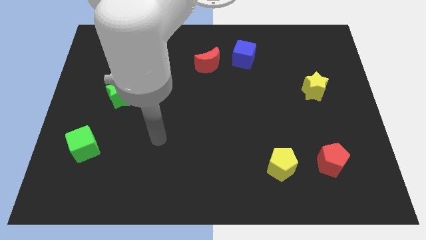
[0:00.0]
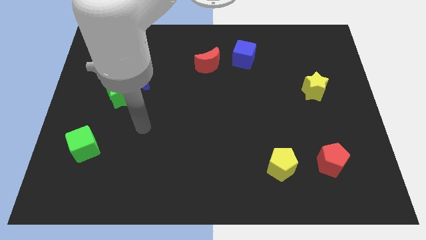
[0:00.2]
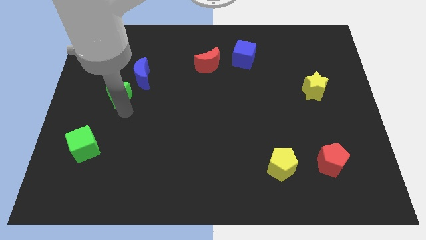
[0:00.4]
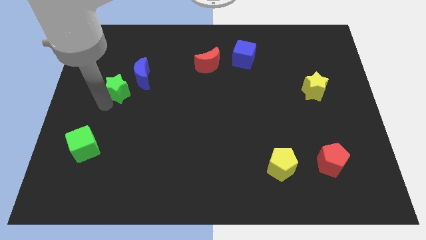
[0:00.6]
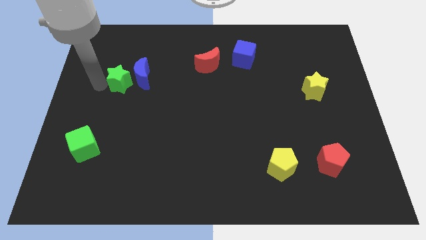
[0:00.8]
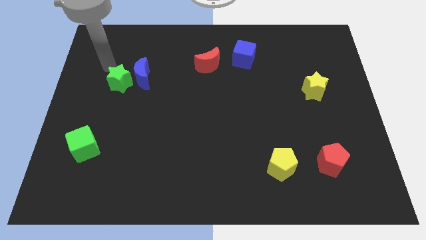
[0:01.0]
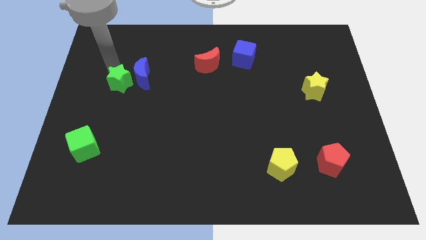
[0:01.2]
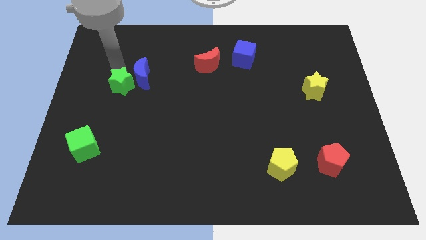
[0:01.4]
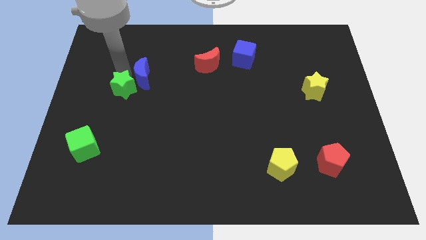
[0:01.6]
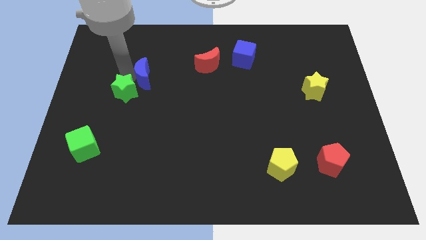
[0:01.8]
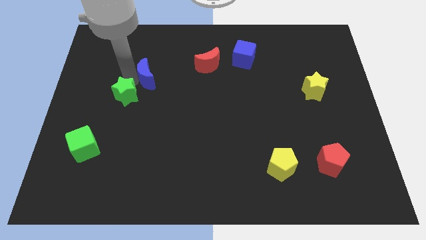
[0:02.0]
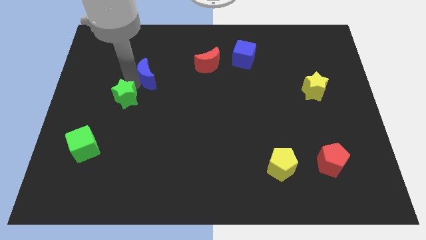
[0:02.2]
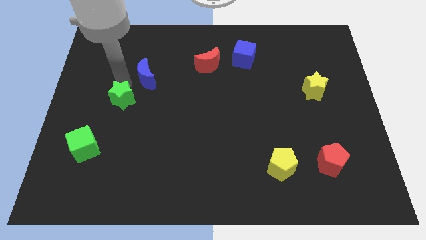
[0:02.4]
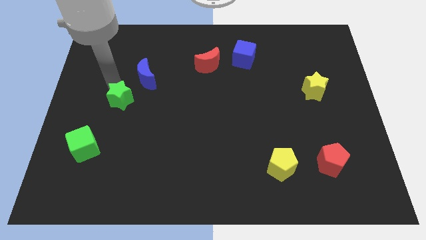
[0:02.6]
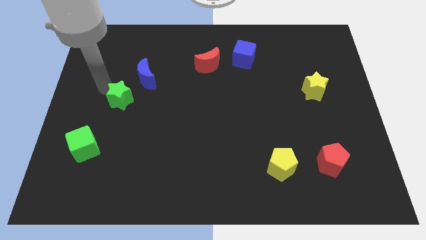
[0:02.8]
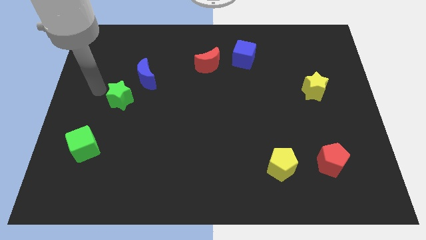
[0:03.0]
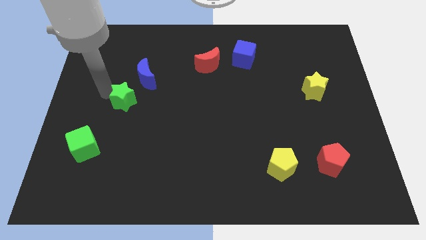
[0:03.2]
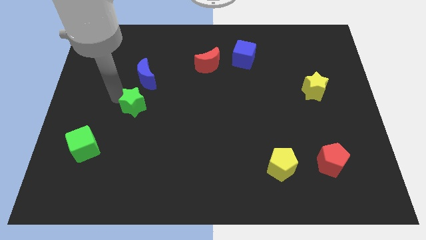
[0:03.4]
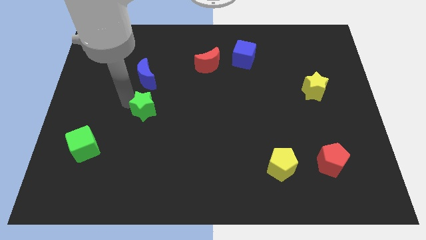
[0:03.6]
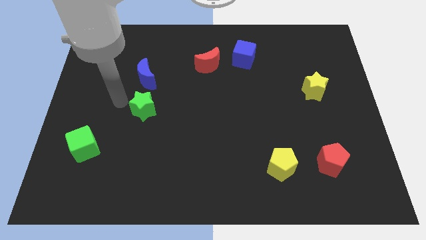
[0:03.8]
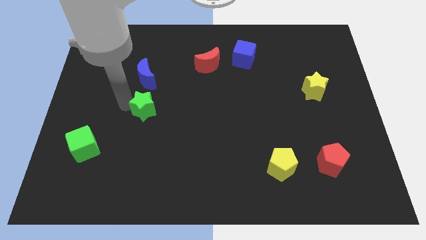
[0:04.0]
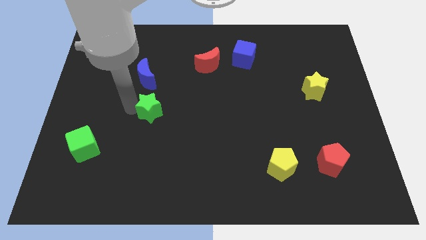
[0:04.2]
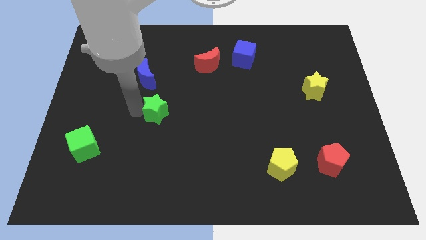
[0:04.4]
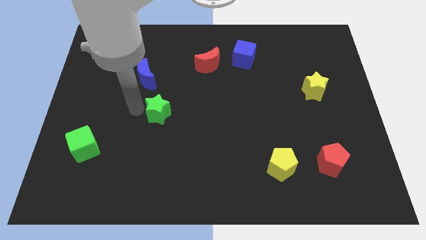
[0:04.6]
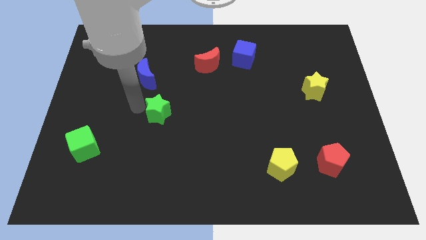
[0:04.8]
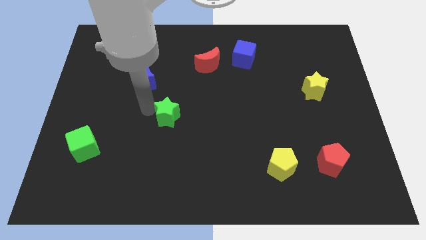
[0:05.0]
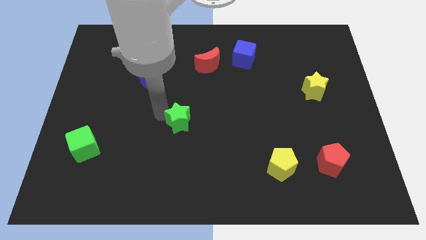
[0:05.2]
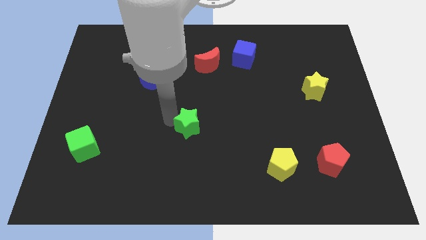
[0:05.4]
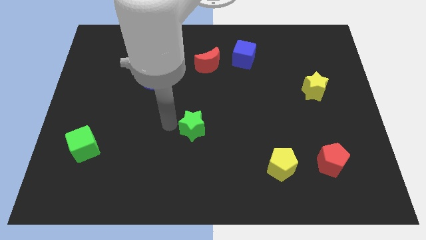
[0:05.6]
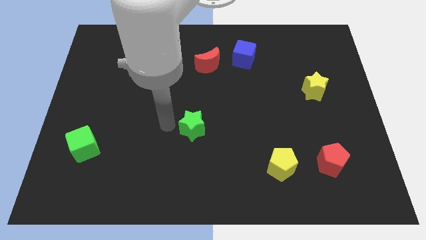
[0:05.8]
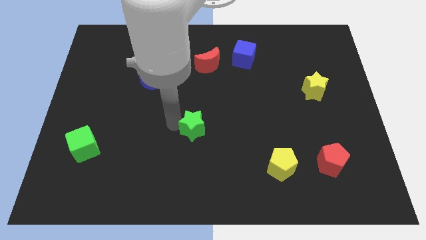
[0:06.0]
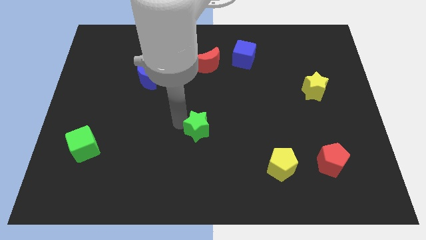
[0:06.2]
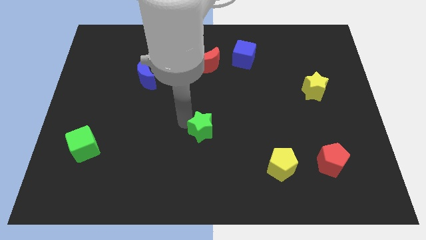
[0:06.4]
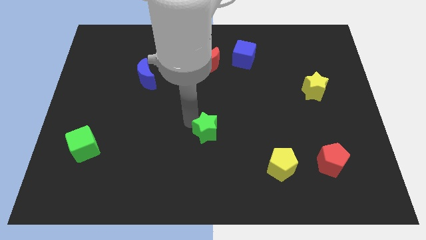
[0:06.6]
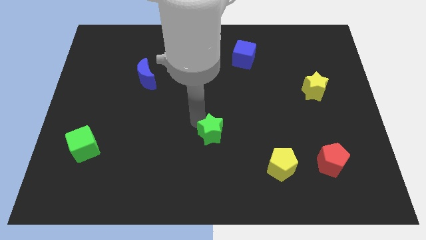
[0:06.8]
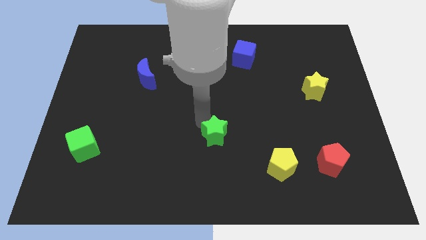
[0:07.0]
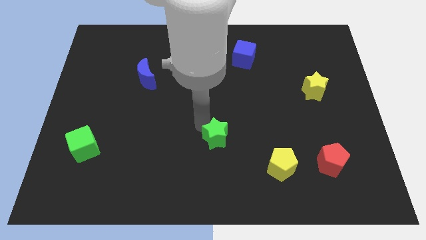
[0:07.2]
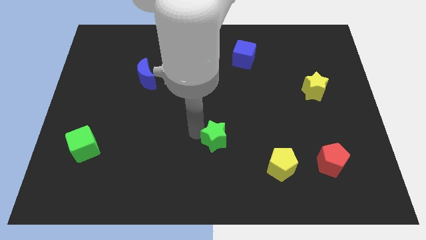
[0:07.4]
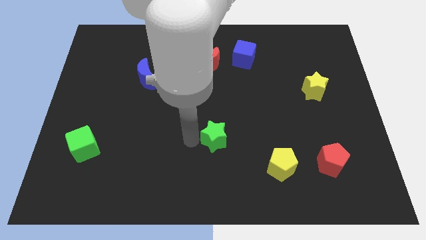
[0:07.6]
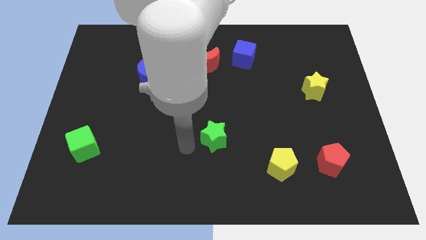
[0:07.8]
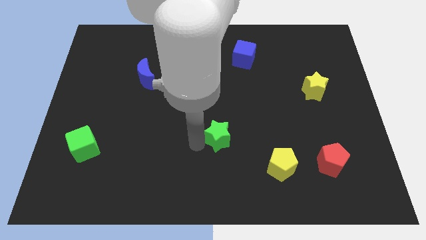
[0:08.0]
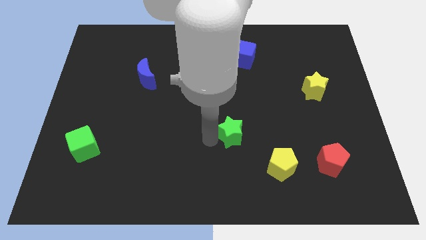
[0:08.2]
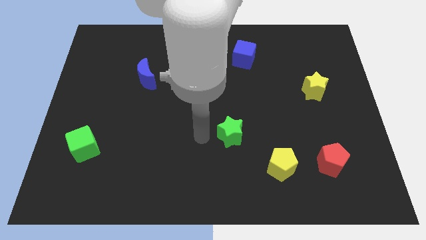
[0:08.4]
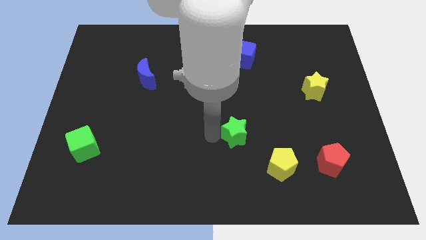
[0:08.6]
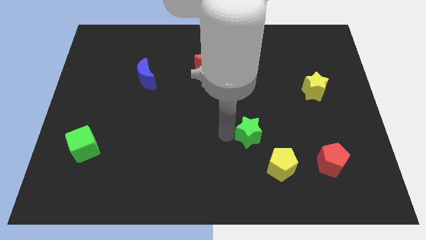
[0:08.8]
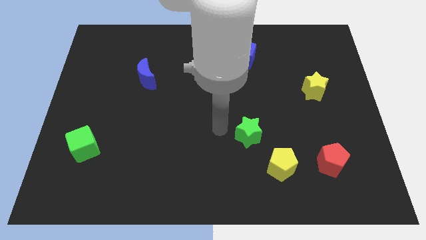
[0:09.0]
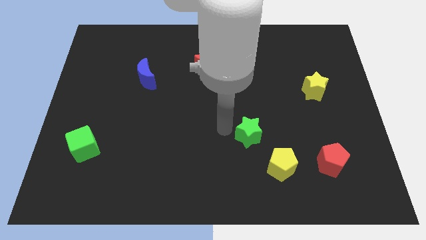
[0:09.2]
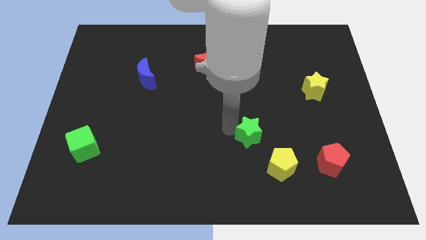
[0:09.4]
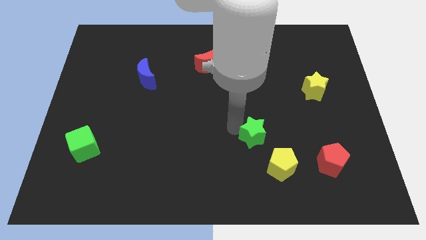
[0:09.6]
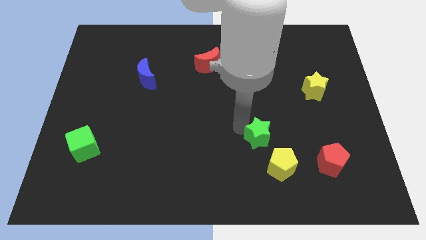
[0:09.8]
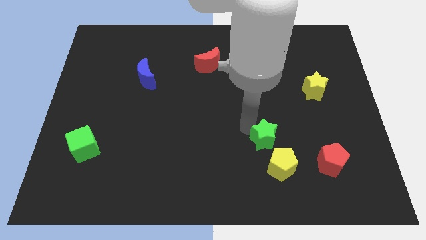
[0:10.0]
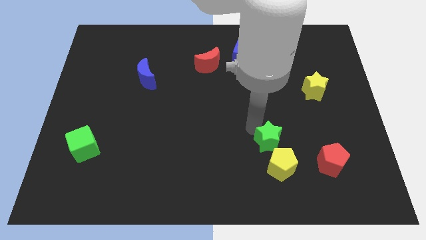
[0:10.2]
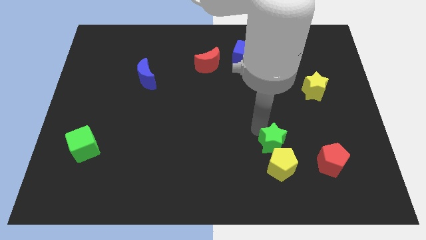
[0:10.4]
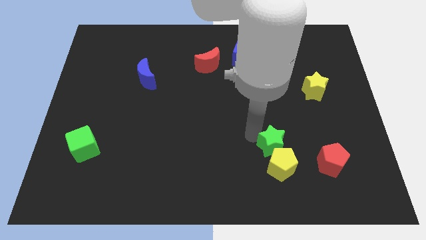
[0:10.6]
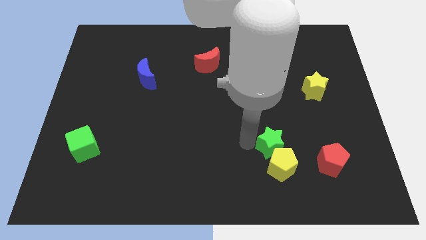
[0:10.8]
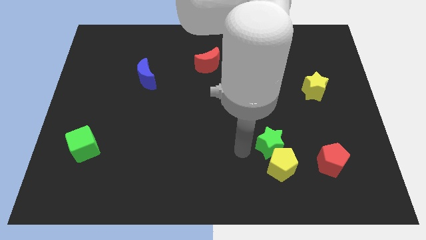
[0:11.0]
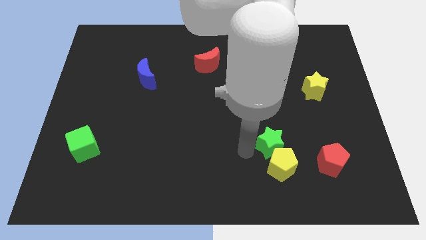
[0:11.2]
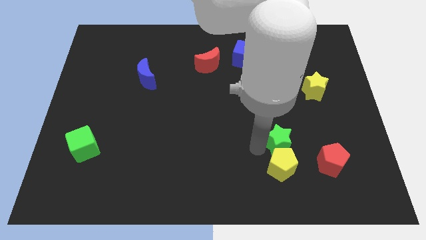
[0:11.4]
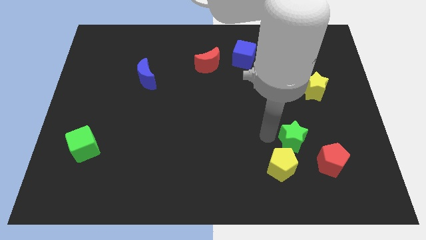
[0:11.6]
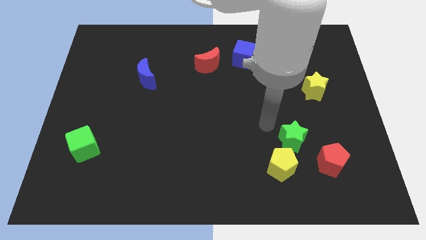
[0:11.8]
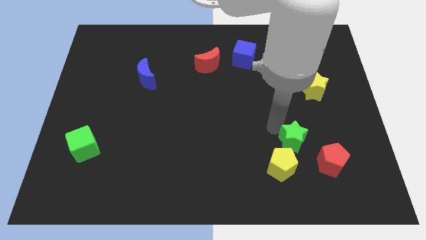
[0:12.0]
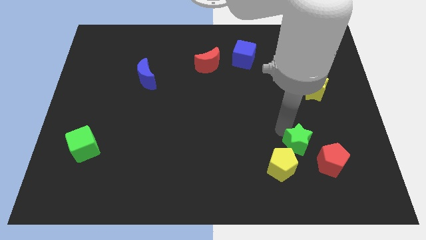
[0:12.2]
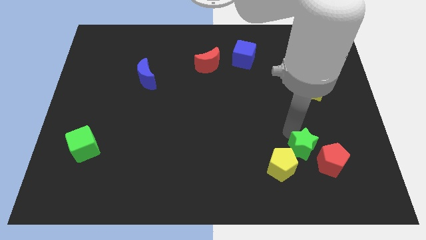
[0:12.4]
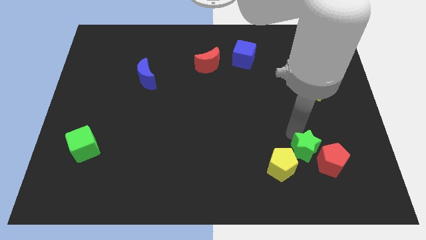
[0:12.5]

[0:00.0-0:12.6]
move the green star next to the red pentagon

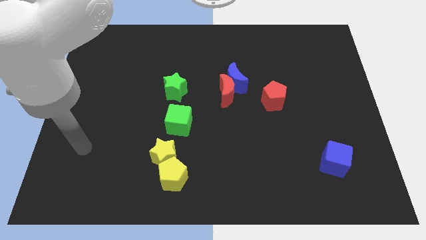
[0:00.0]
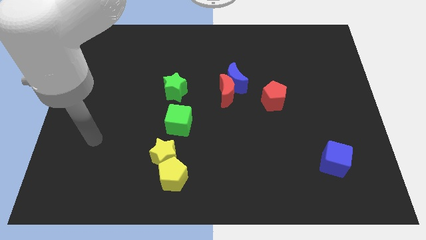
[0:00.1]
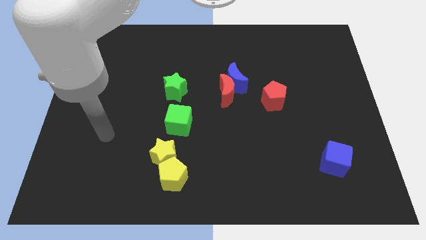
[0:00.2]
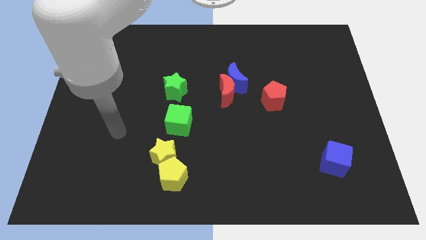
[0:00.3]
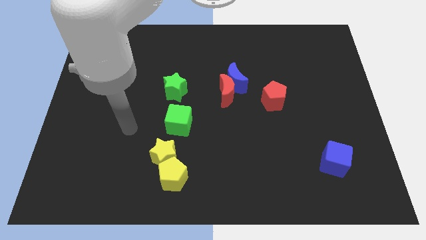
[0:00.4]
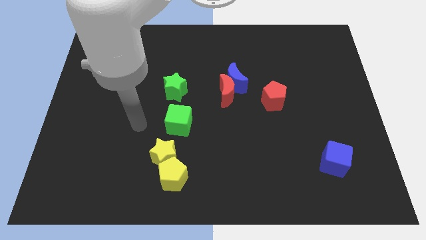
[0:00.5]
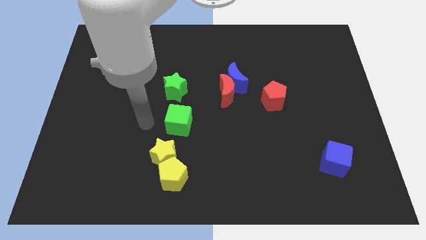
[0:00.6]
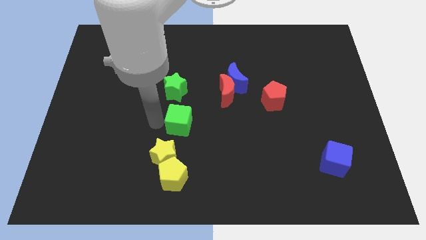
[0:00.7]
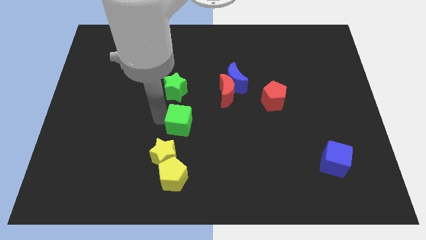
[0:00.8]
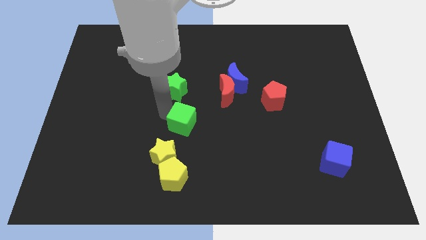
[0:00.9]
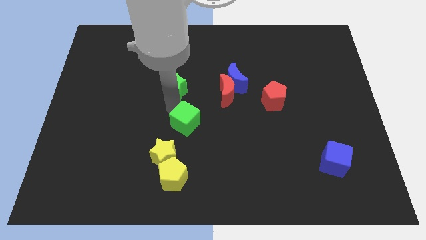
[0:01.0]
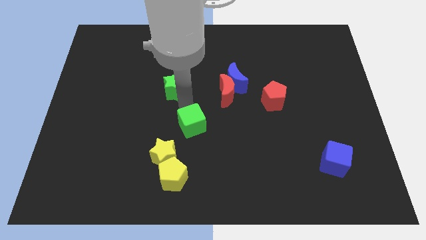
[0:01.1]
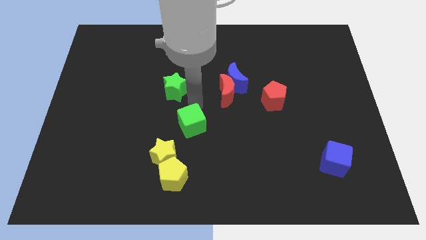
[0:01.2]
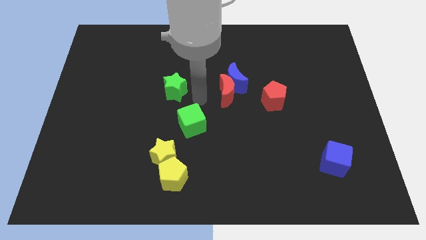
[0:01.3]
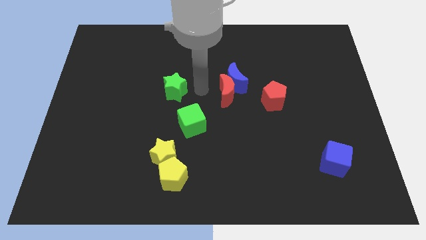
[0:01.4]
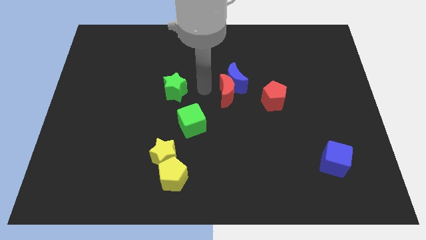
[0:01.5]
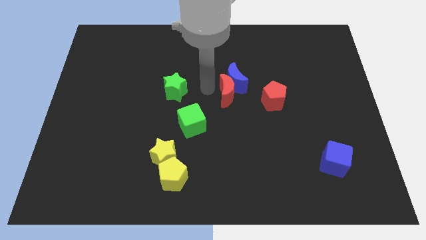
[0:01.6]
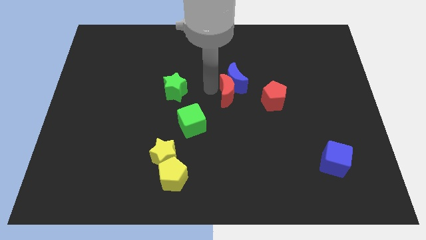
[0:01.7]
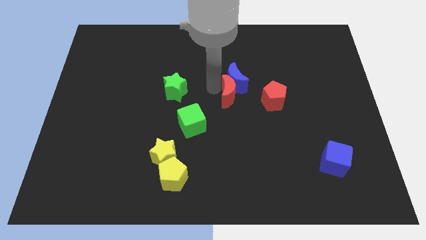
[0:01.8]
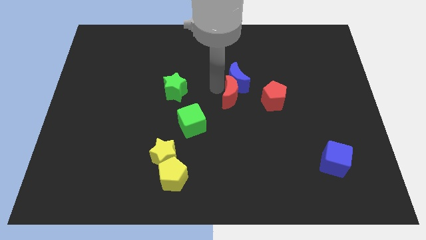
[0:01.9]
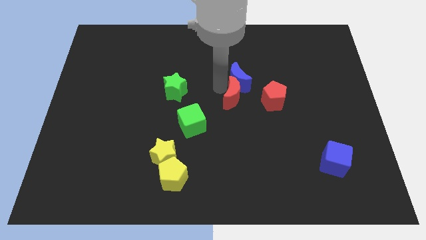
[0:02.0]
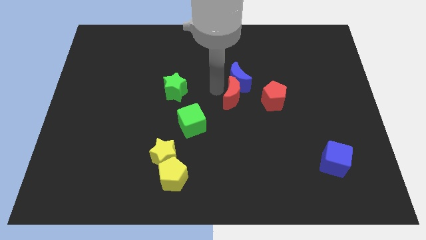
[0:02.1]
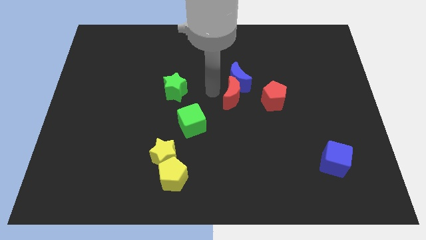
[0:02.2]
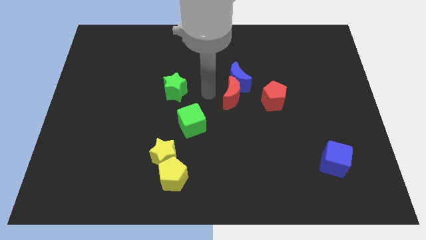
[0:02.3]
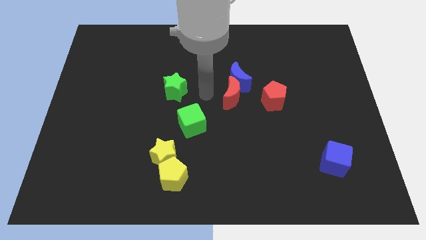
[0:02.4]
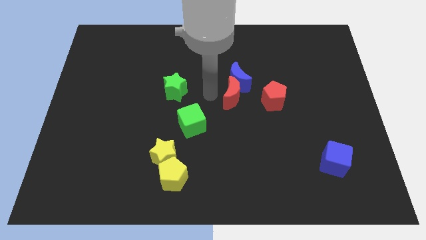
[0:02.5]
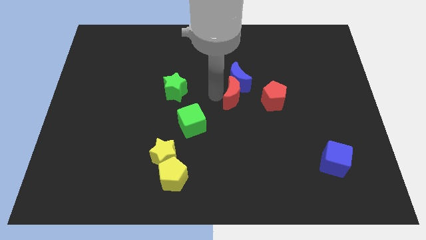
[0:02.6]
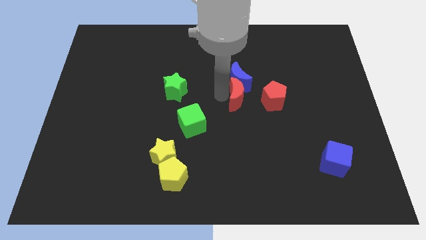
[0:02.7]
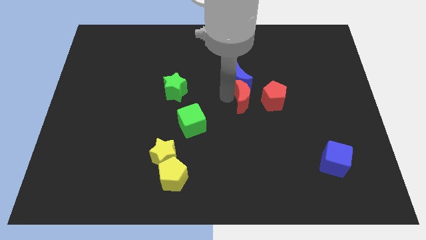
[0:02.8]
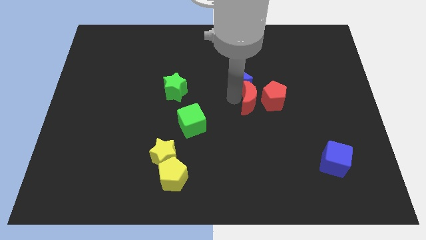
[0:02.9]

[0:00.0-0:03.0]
slide the red moon close to the red pentagon
